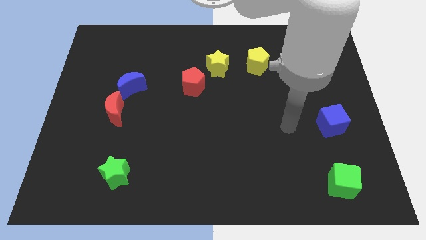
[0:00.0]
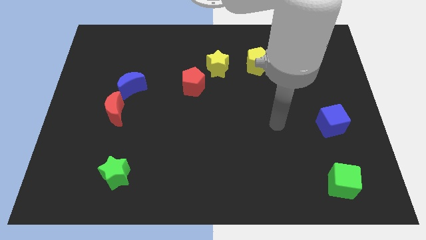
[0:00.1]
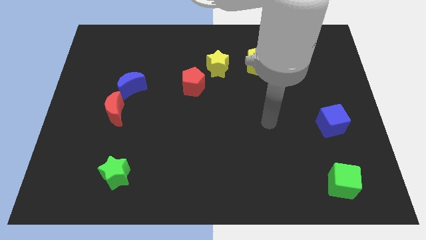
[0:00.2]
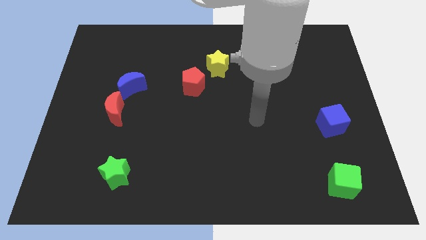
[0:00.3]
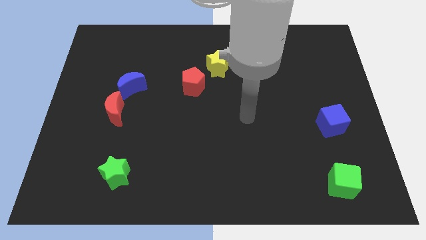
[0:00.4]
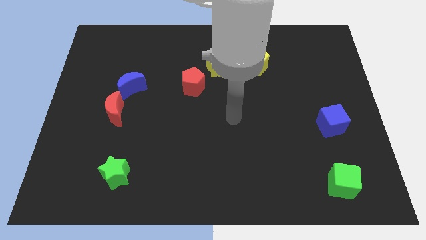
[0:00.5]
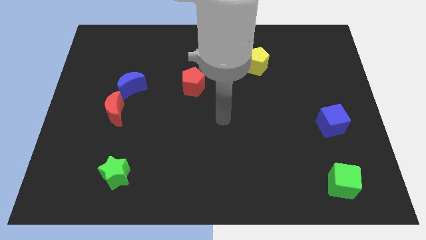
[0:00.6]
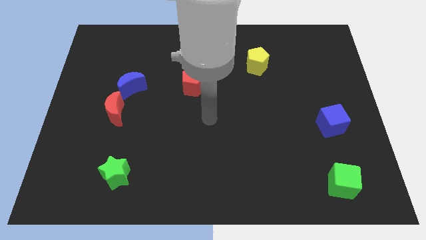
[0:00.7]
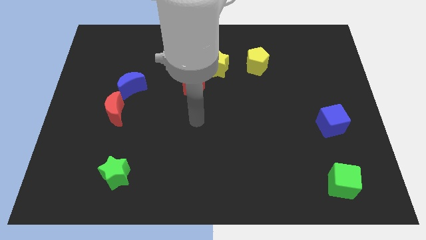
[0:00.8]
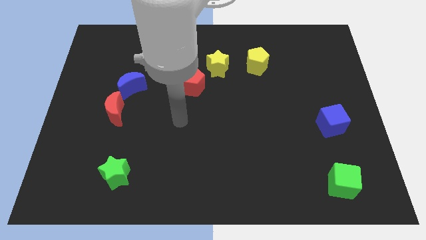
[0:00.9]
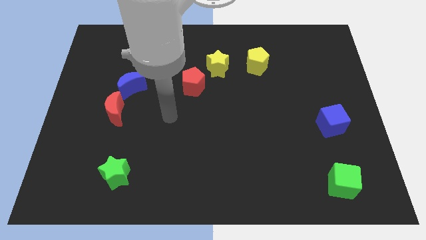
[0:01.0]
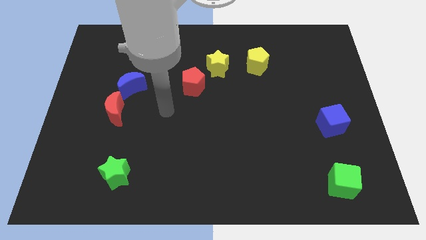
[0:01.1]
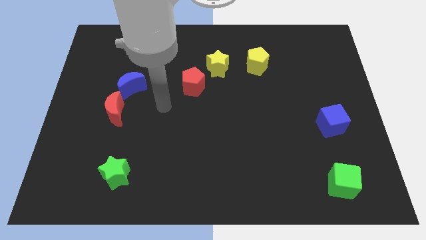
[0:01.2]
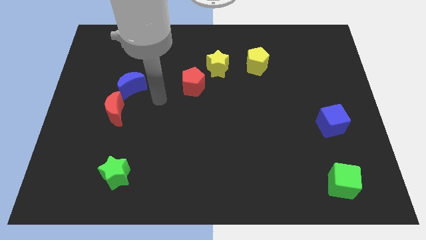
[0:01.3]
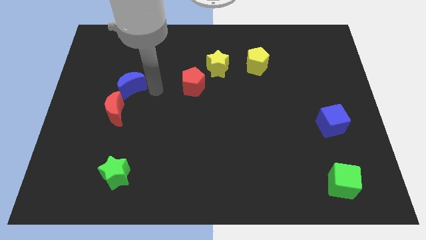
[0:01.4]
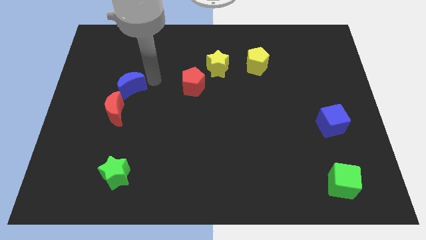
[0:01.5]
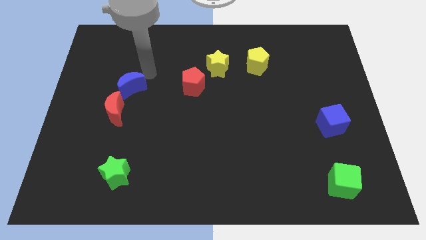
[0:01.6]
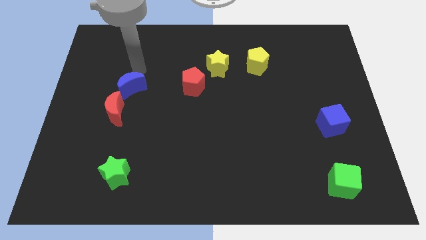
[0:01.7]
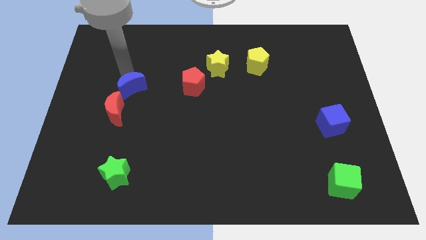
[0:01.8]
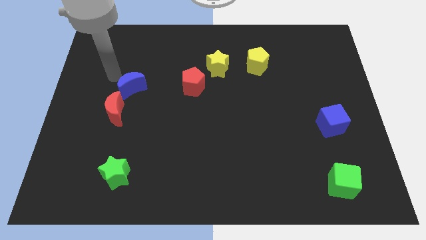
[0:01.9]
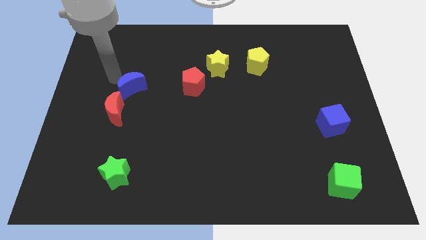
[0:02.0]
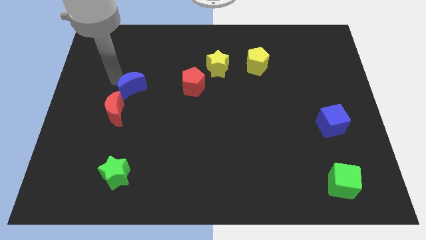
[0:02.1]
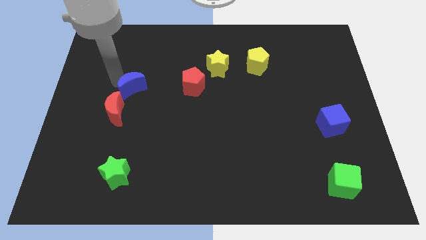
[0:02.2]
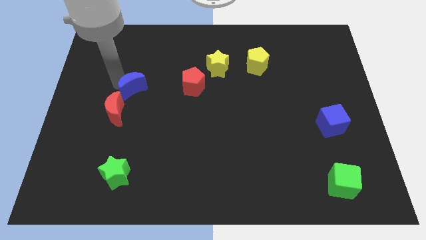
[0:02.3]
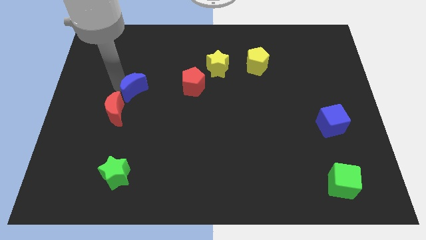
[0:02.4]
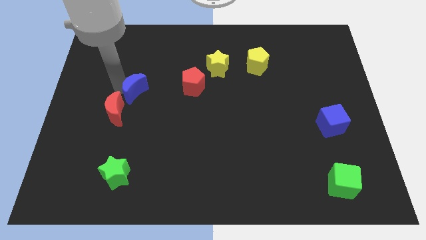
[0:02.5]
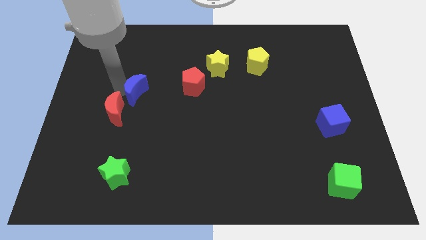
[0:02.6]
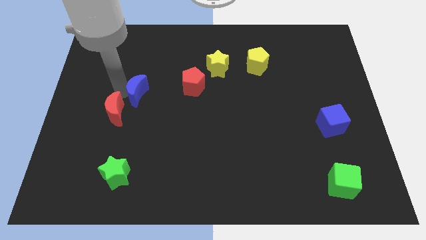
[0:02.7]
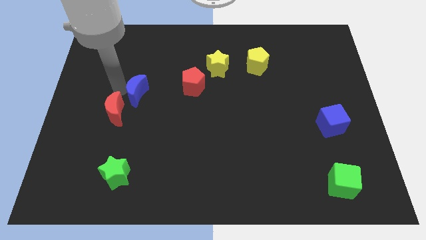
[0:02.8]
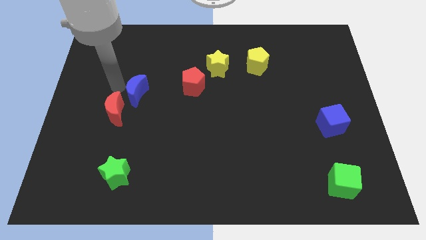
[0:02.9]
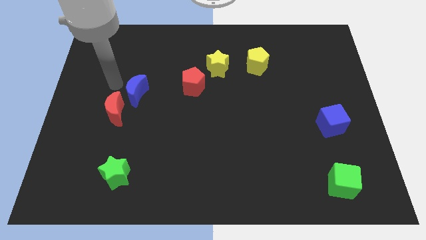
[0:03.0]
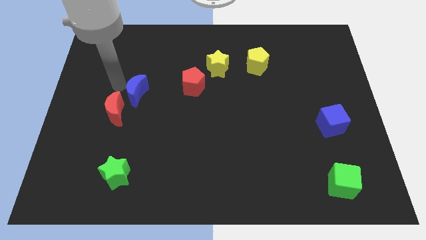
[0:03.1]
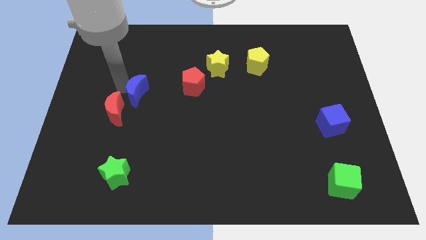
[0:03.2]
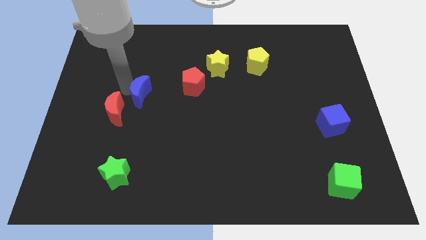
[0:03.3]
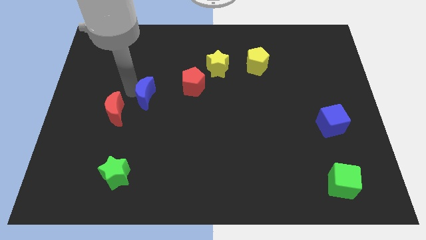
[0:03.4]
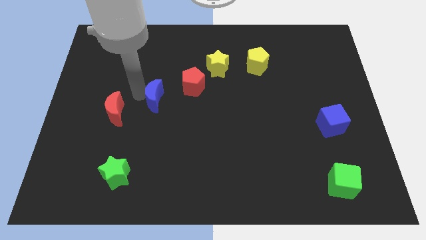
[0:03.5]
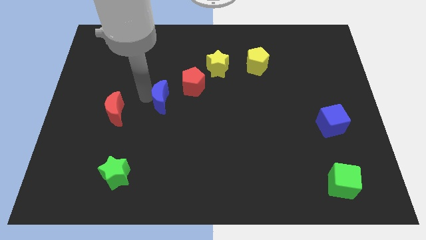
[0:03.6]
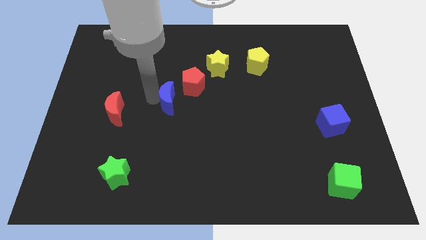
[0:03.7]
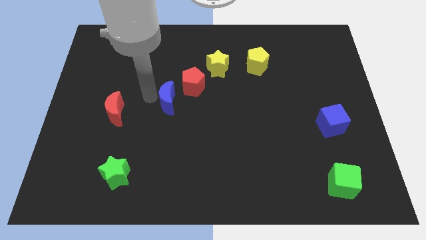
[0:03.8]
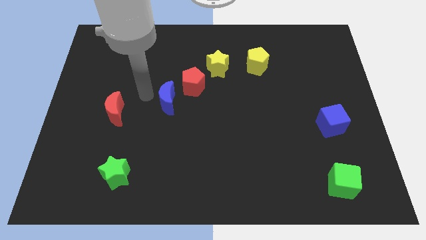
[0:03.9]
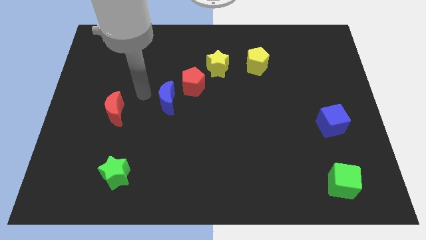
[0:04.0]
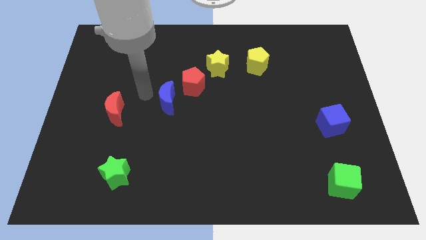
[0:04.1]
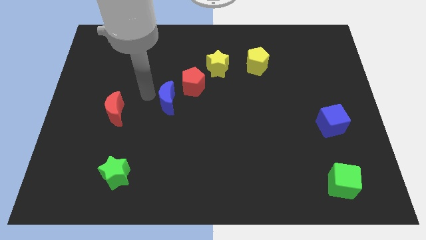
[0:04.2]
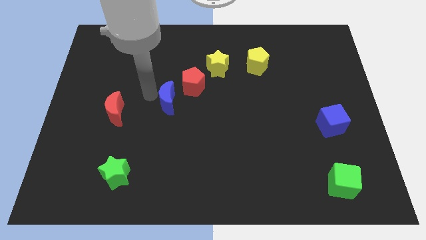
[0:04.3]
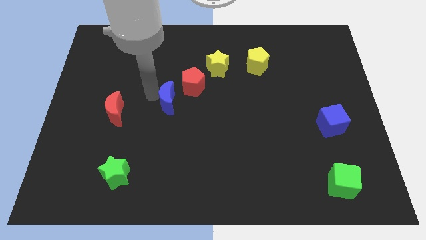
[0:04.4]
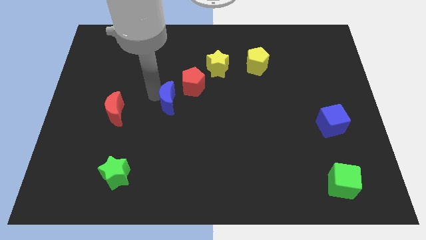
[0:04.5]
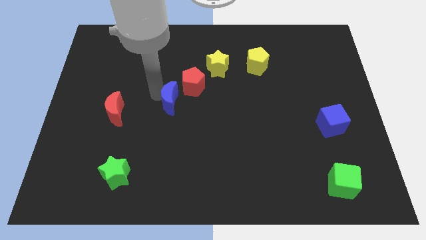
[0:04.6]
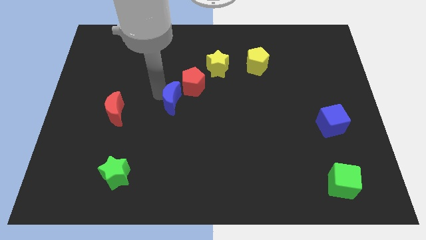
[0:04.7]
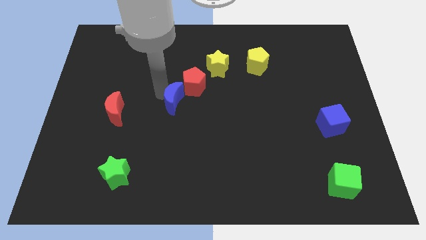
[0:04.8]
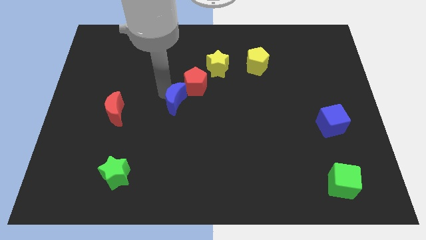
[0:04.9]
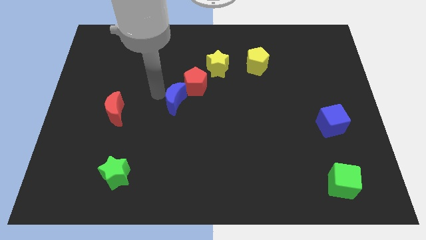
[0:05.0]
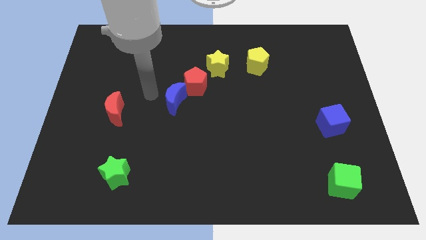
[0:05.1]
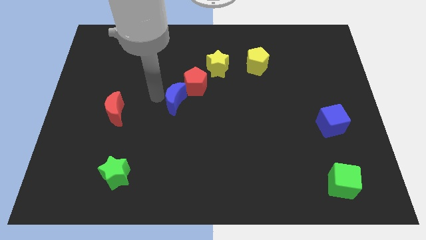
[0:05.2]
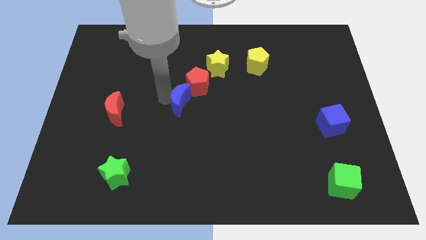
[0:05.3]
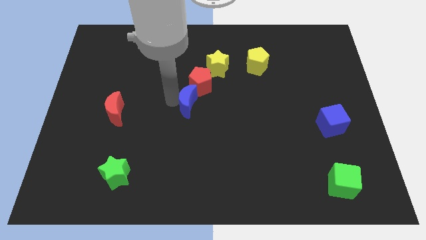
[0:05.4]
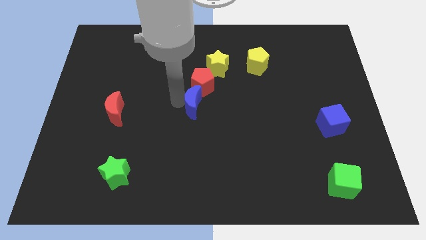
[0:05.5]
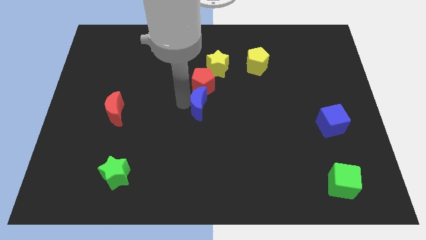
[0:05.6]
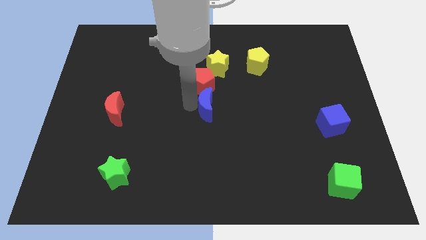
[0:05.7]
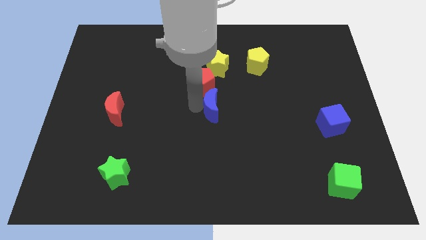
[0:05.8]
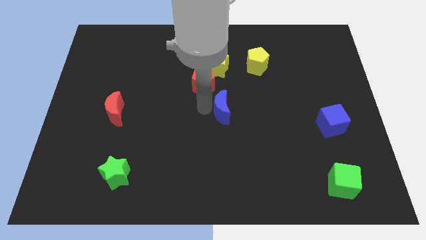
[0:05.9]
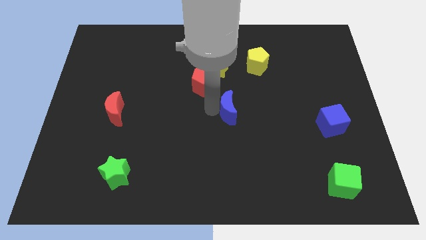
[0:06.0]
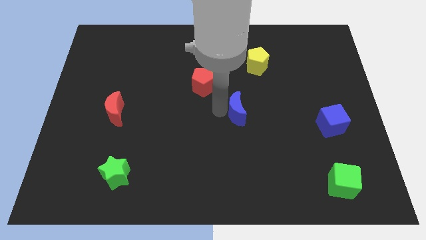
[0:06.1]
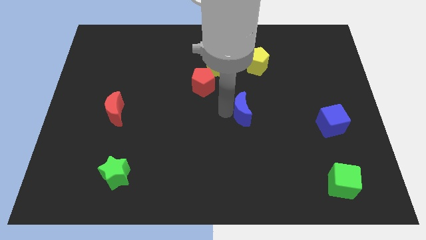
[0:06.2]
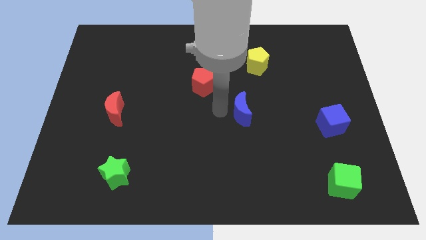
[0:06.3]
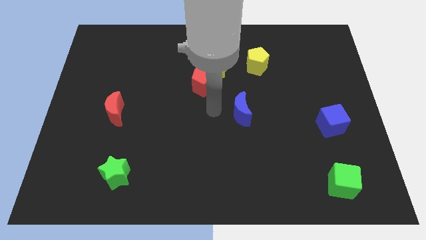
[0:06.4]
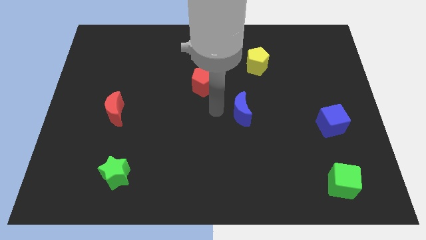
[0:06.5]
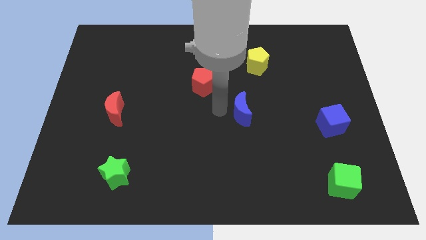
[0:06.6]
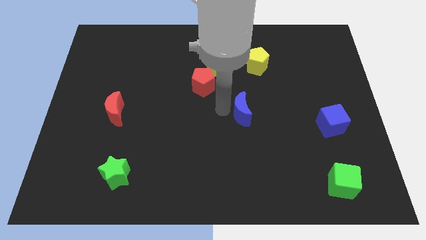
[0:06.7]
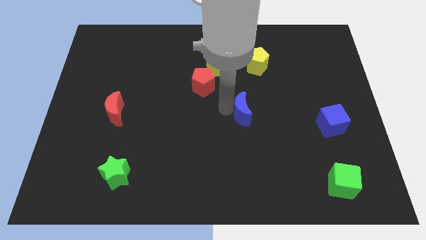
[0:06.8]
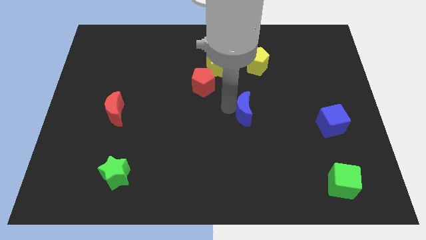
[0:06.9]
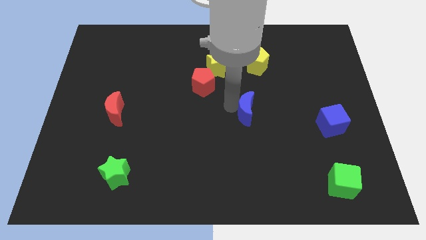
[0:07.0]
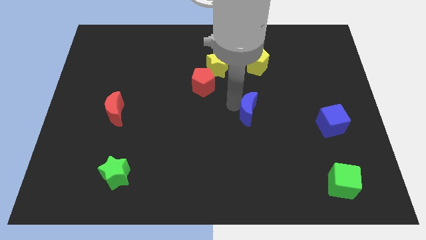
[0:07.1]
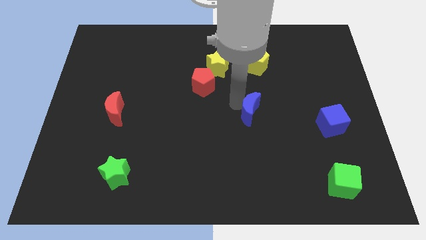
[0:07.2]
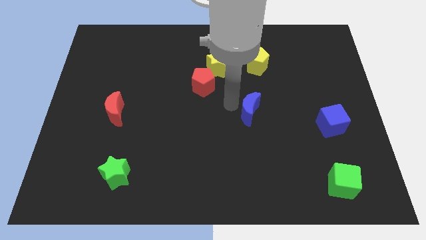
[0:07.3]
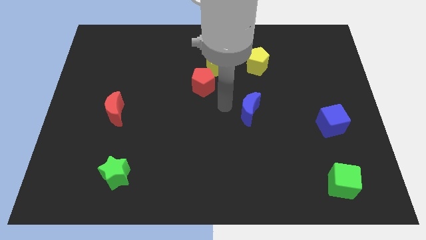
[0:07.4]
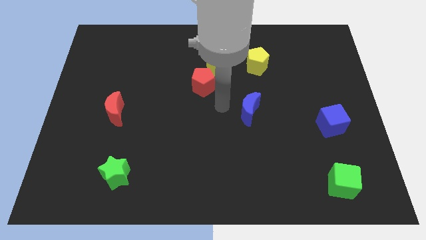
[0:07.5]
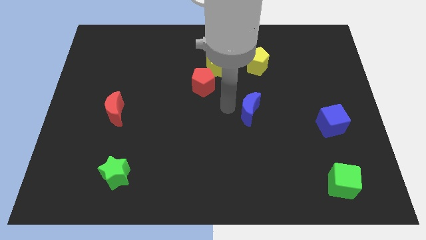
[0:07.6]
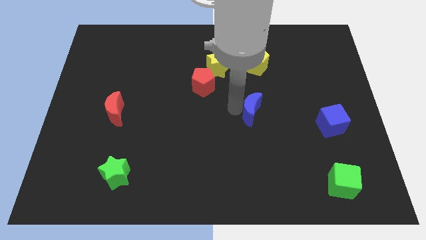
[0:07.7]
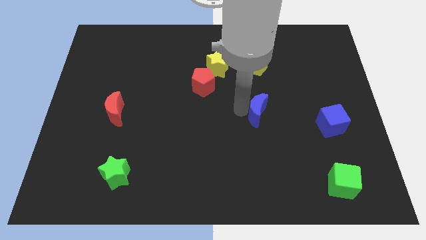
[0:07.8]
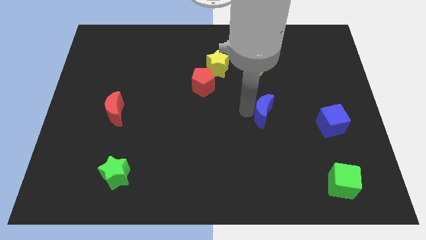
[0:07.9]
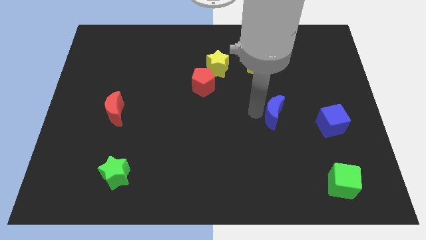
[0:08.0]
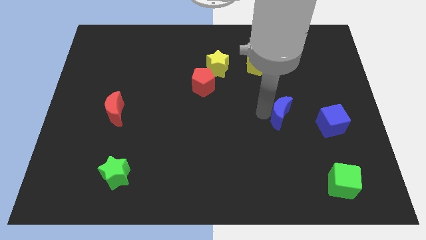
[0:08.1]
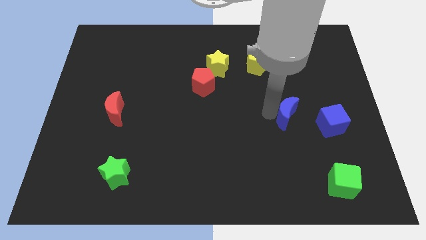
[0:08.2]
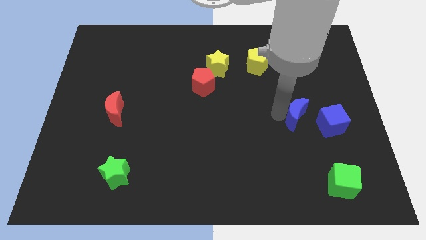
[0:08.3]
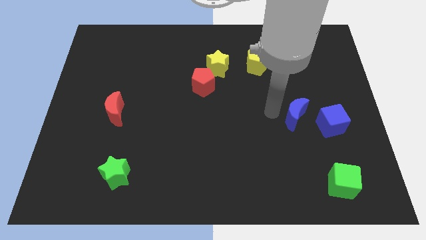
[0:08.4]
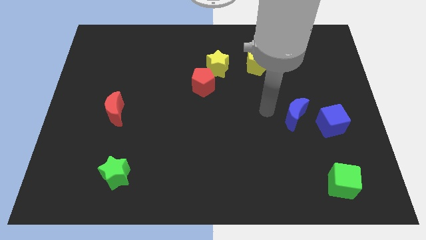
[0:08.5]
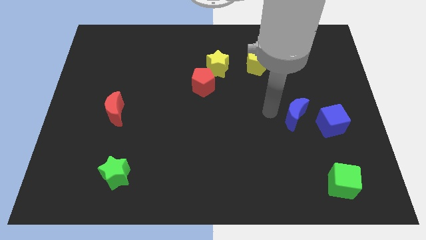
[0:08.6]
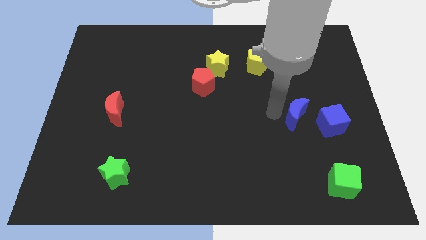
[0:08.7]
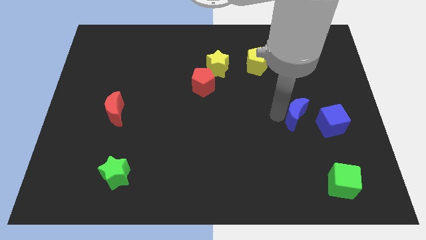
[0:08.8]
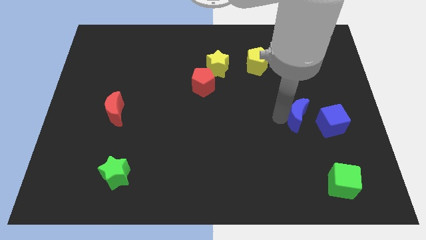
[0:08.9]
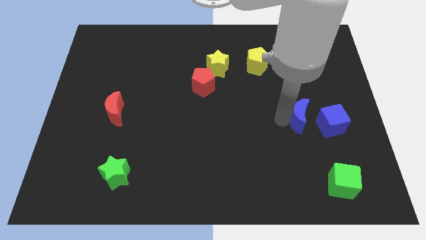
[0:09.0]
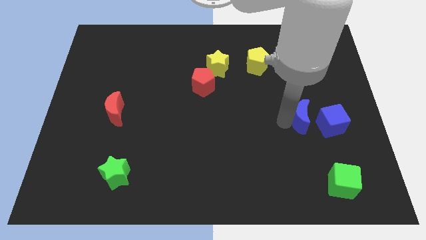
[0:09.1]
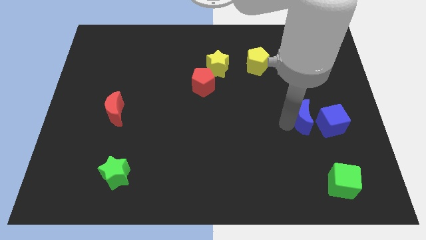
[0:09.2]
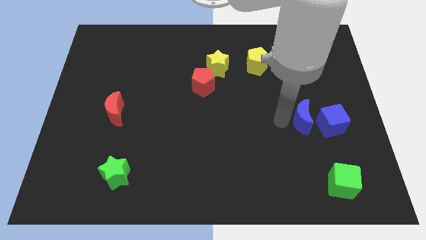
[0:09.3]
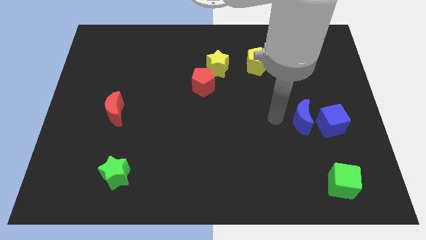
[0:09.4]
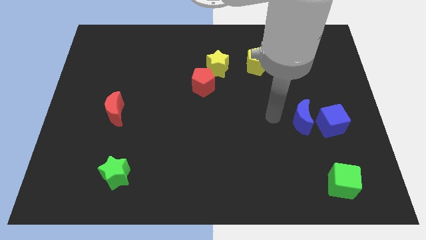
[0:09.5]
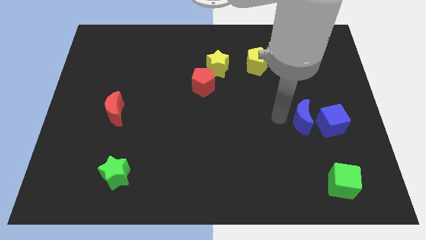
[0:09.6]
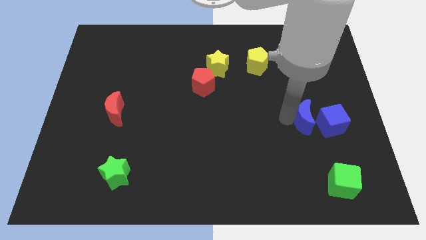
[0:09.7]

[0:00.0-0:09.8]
push the blue moon next to the blue cube
